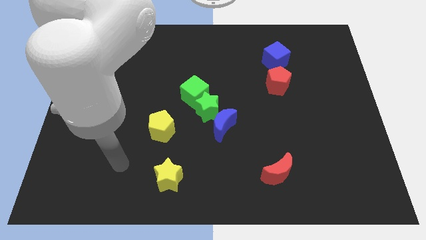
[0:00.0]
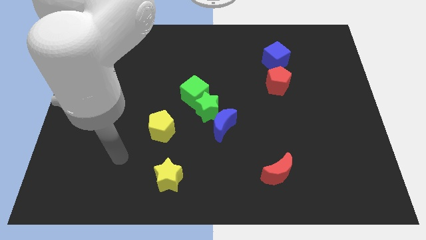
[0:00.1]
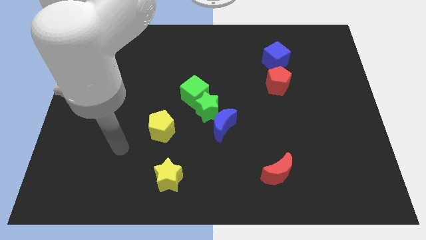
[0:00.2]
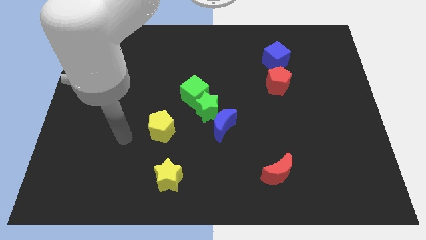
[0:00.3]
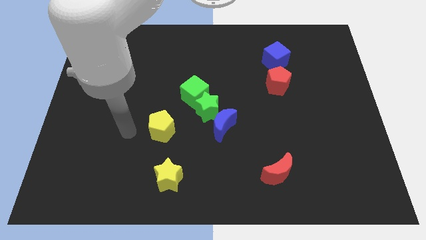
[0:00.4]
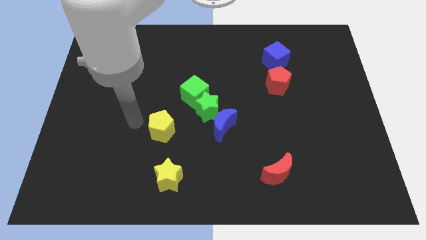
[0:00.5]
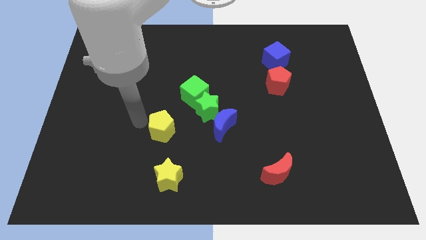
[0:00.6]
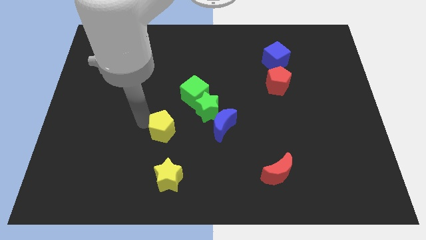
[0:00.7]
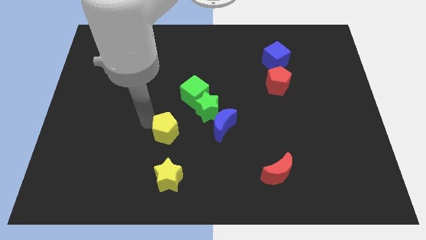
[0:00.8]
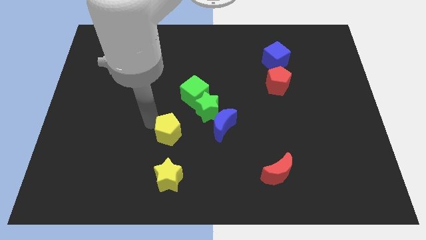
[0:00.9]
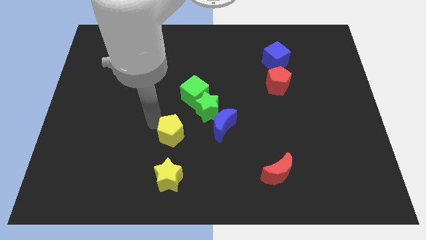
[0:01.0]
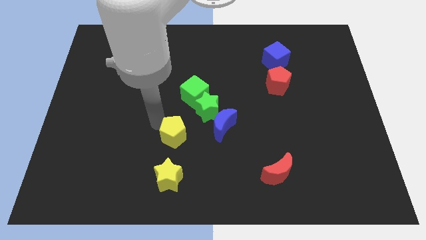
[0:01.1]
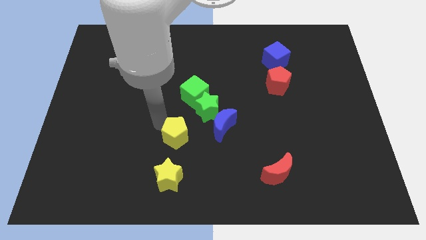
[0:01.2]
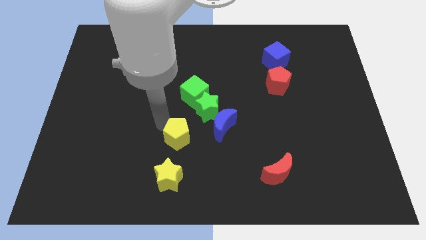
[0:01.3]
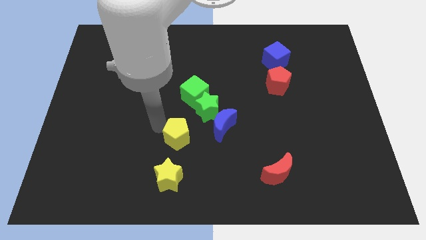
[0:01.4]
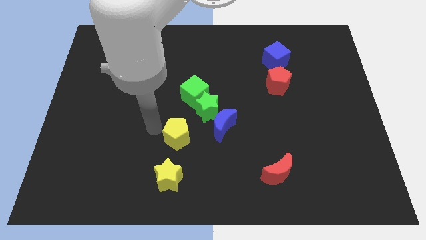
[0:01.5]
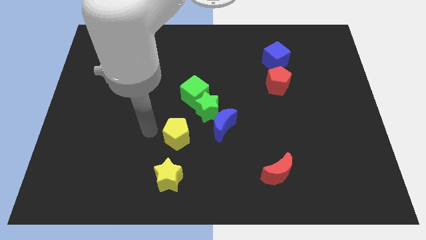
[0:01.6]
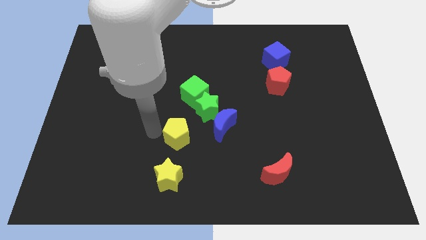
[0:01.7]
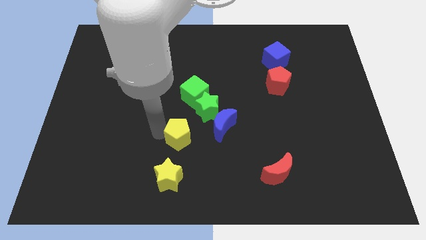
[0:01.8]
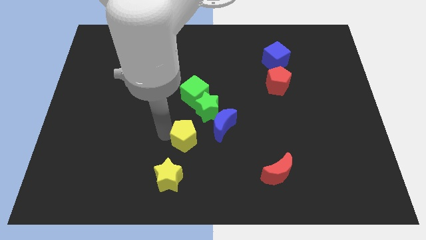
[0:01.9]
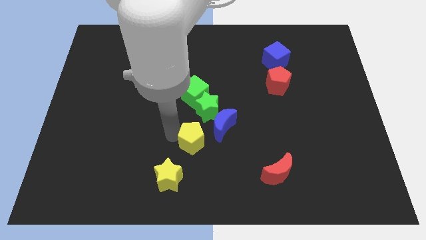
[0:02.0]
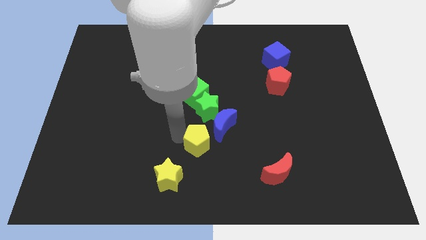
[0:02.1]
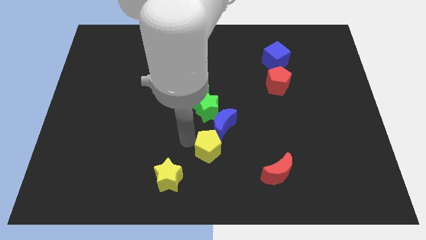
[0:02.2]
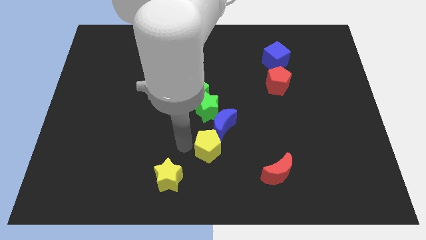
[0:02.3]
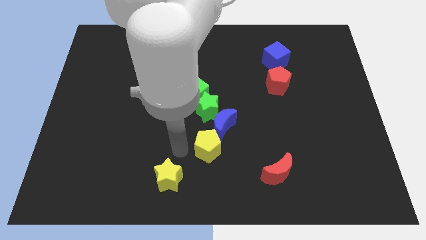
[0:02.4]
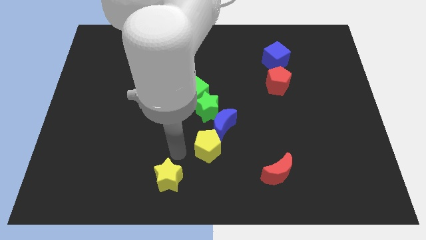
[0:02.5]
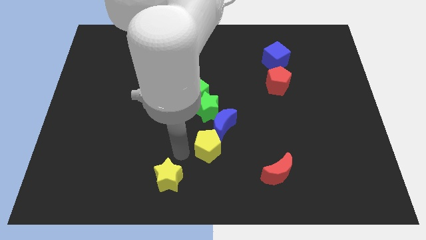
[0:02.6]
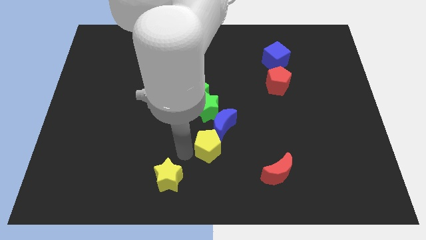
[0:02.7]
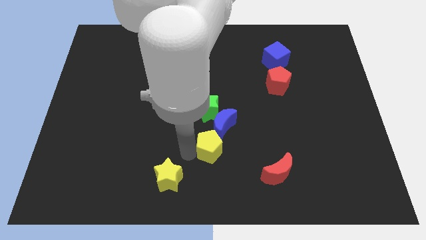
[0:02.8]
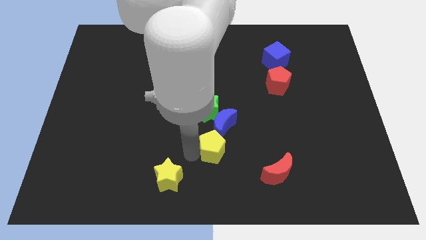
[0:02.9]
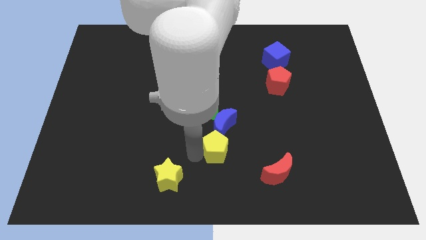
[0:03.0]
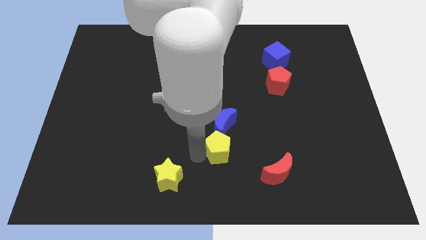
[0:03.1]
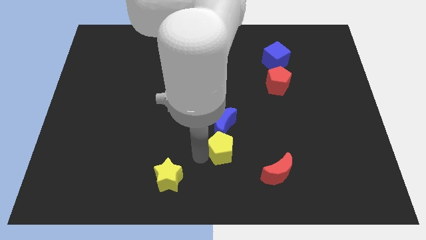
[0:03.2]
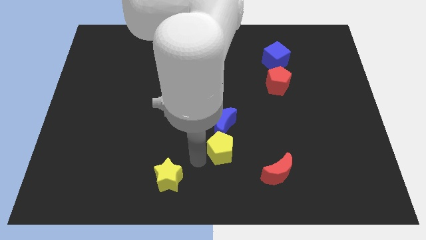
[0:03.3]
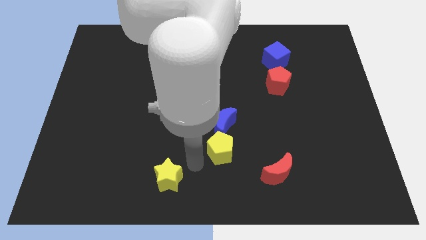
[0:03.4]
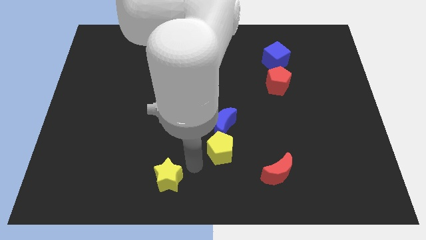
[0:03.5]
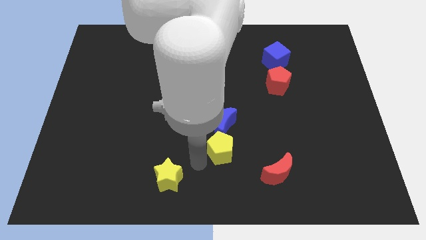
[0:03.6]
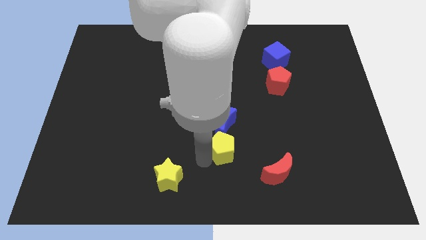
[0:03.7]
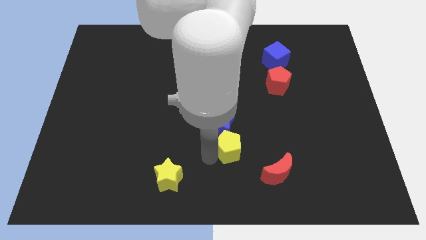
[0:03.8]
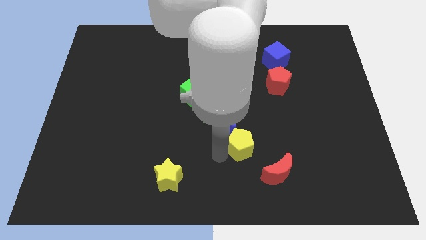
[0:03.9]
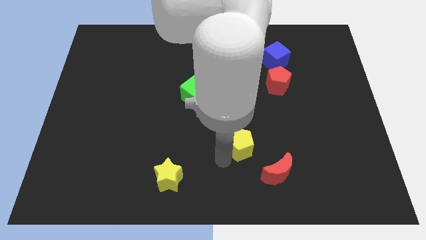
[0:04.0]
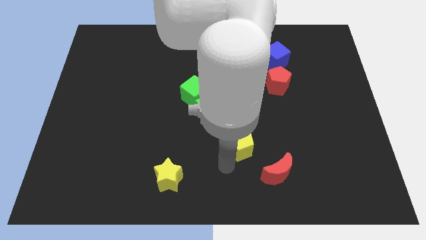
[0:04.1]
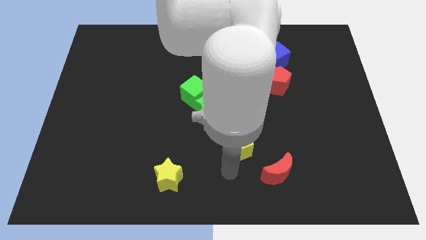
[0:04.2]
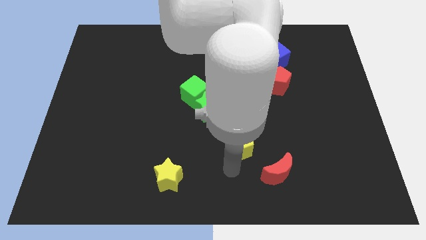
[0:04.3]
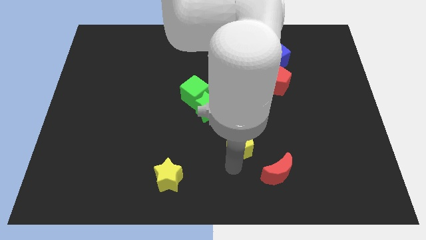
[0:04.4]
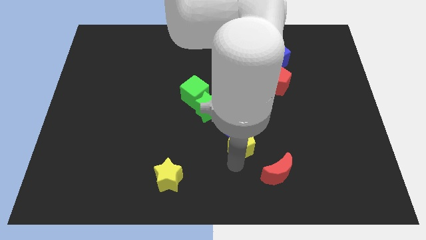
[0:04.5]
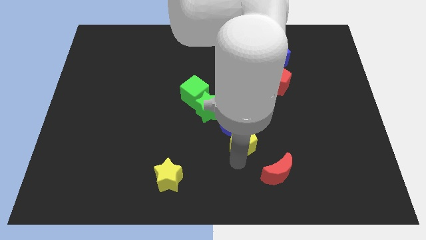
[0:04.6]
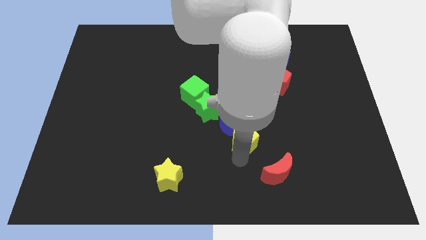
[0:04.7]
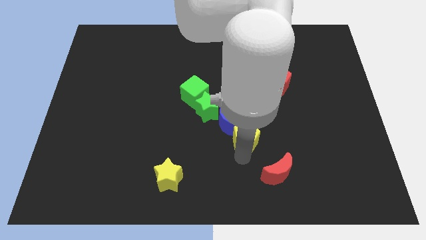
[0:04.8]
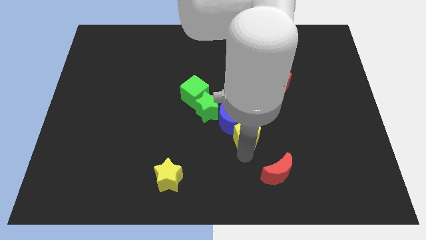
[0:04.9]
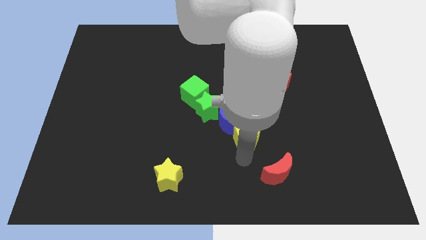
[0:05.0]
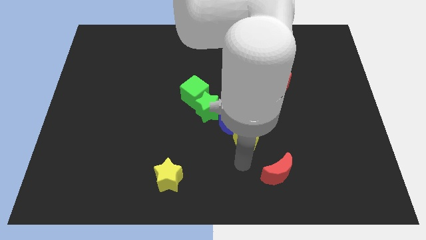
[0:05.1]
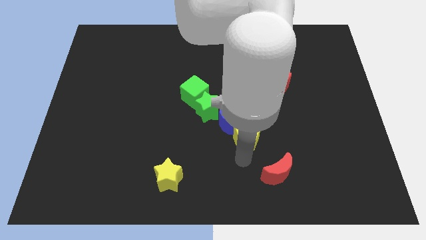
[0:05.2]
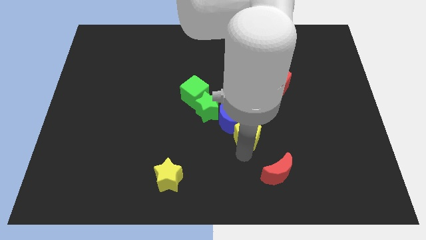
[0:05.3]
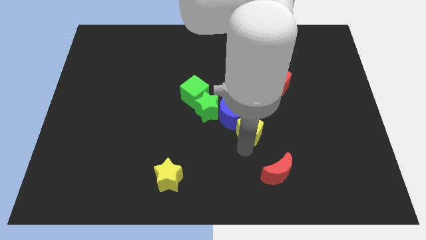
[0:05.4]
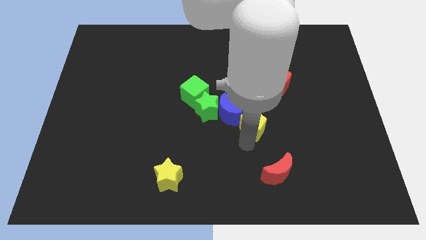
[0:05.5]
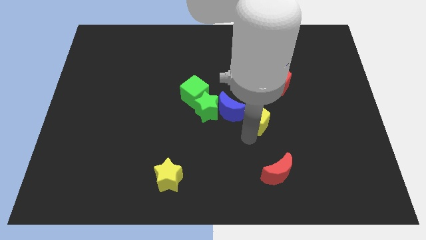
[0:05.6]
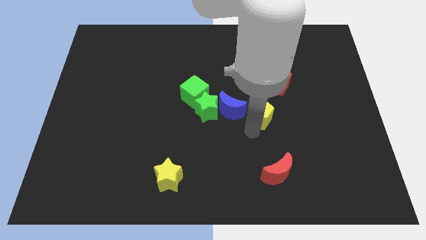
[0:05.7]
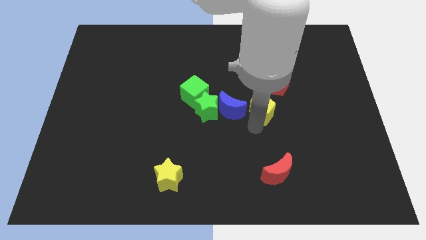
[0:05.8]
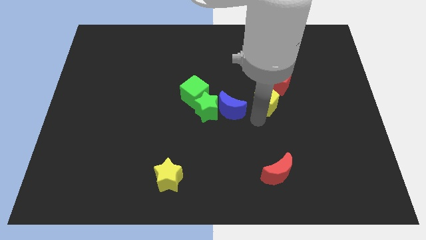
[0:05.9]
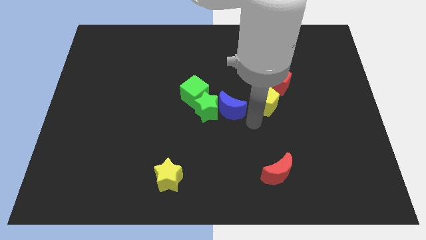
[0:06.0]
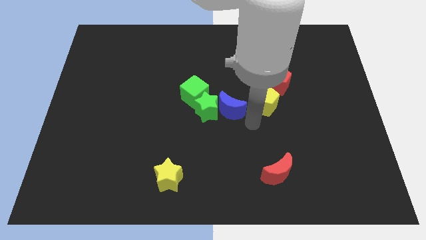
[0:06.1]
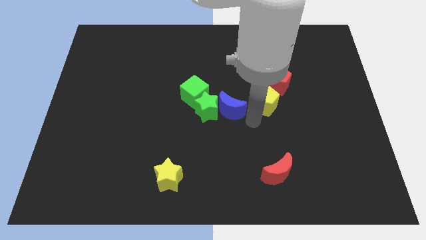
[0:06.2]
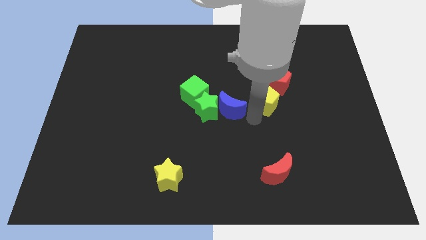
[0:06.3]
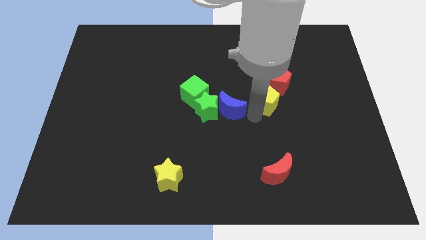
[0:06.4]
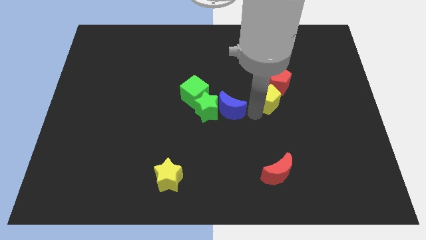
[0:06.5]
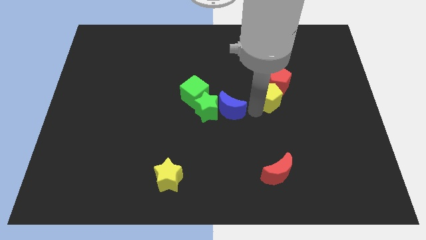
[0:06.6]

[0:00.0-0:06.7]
push the yellow pentagon towards the red pentagon
